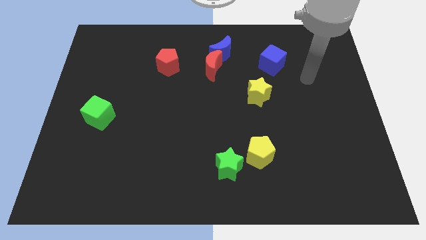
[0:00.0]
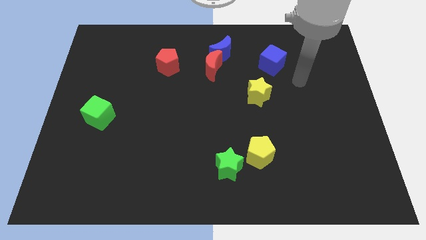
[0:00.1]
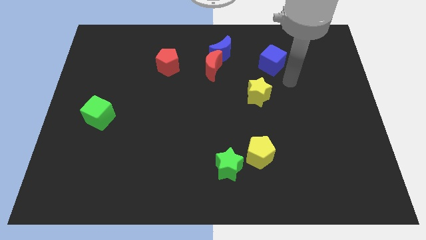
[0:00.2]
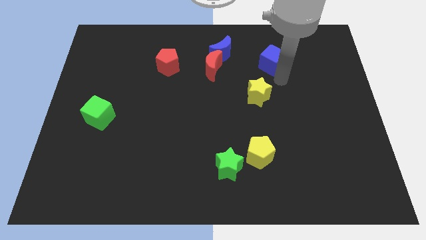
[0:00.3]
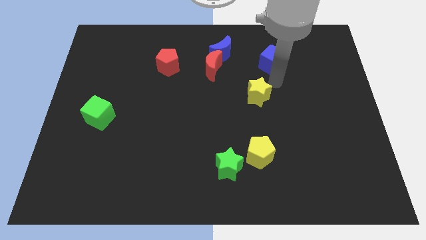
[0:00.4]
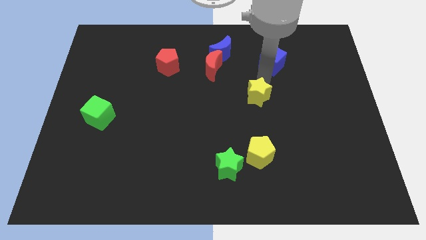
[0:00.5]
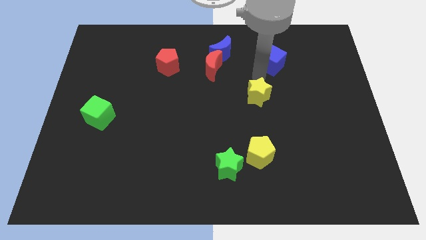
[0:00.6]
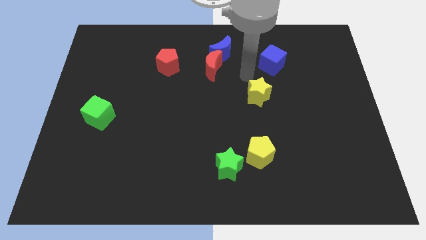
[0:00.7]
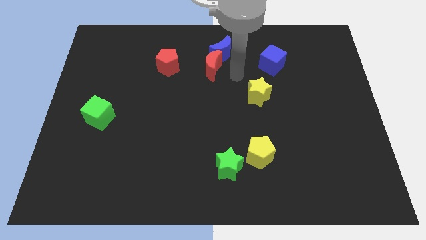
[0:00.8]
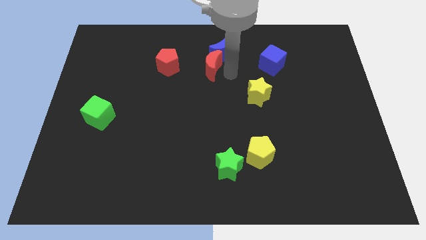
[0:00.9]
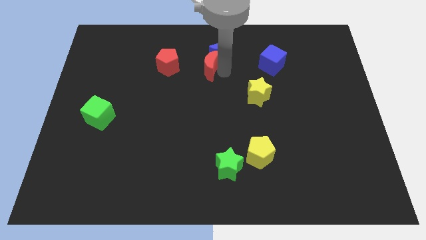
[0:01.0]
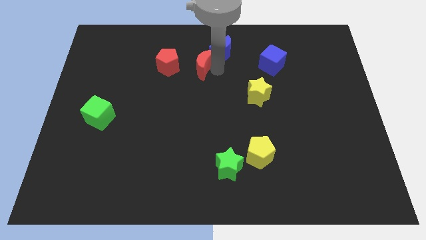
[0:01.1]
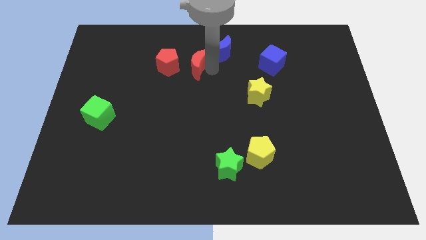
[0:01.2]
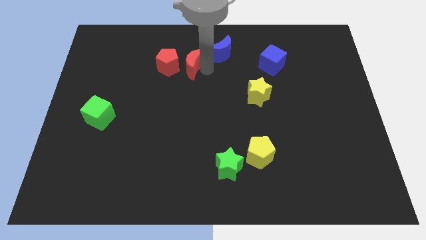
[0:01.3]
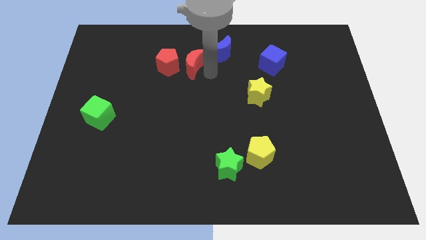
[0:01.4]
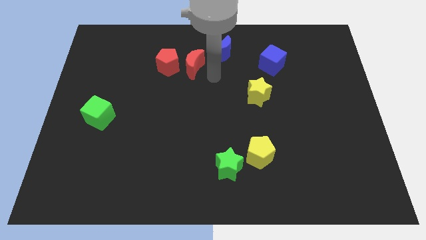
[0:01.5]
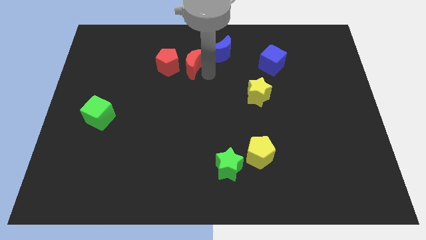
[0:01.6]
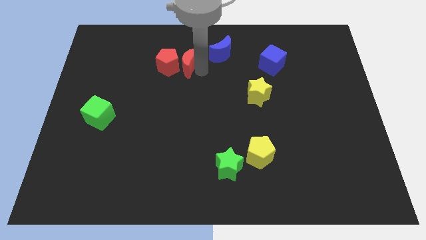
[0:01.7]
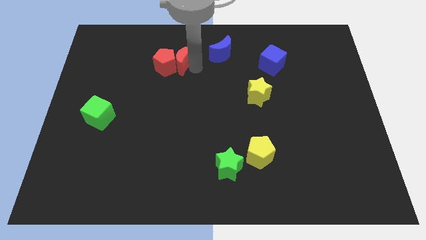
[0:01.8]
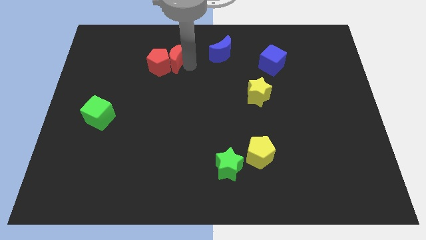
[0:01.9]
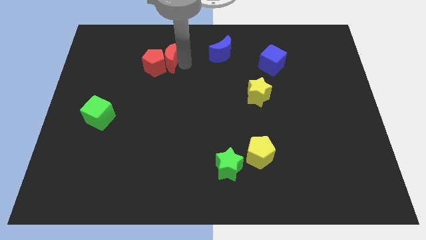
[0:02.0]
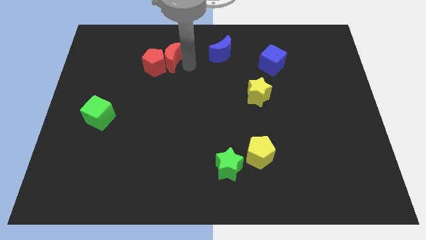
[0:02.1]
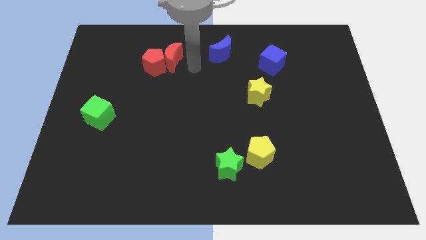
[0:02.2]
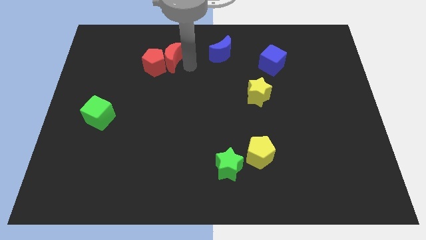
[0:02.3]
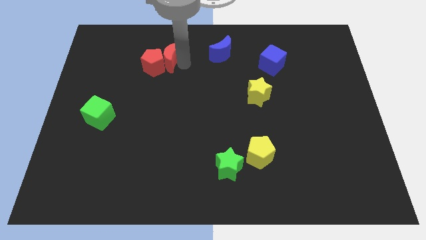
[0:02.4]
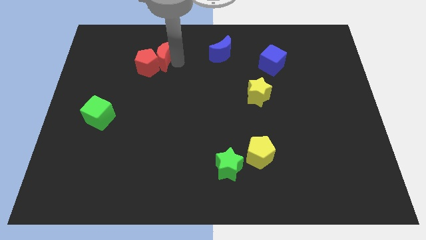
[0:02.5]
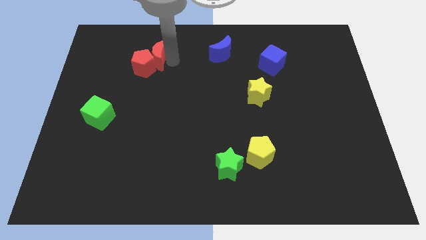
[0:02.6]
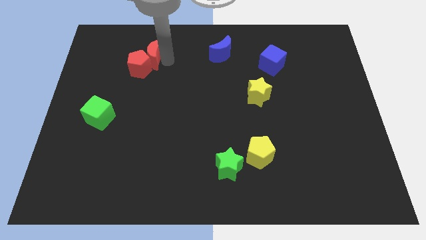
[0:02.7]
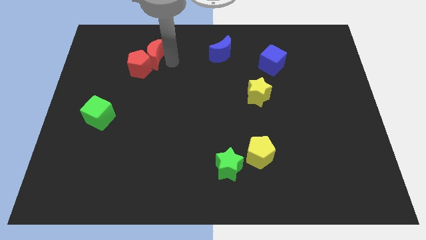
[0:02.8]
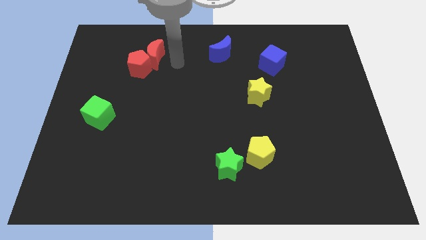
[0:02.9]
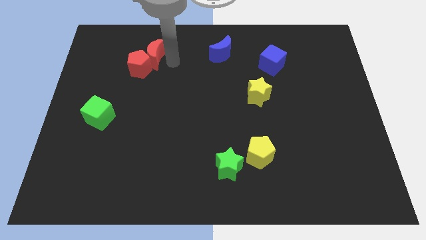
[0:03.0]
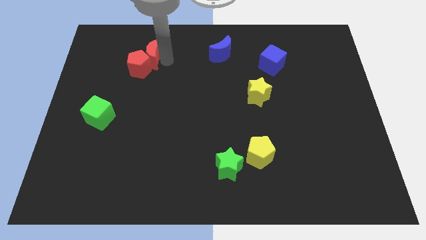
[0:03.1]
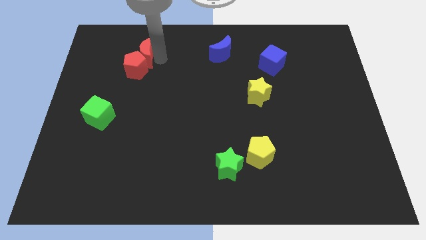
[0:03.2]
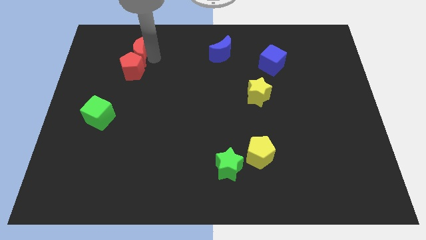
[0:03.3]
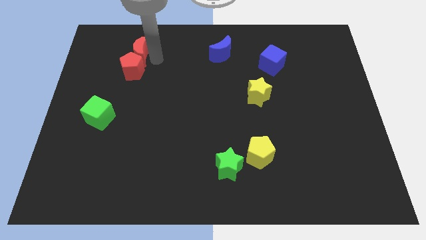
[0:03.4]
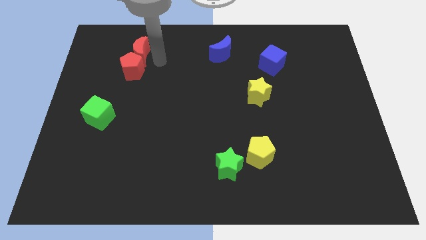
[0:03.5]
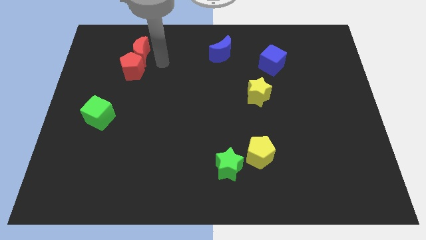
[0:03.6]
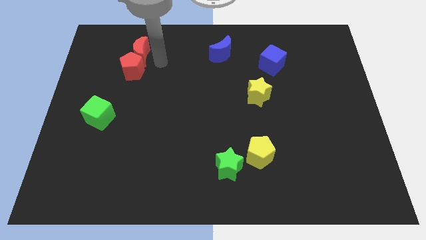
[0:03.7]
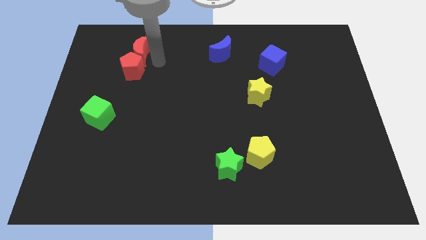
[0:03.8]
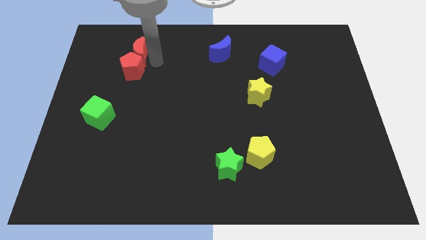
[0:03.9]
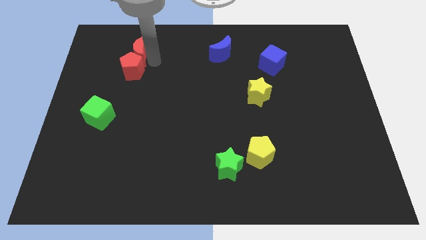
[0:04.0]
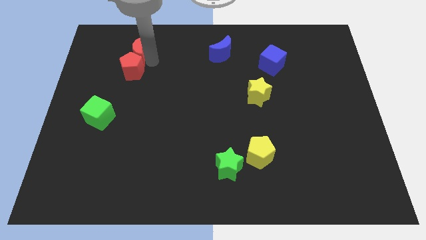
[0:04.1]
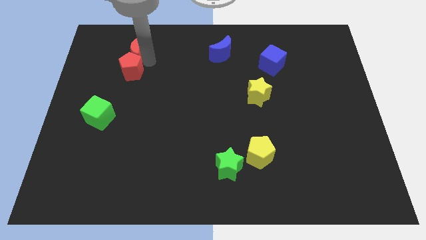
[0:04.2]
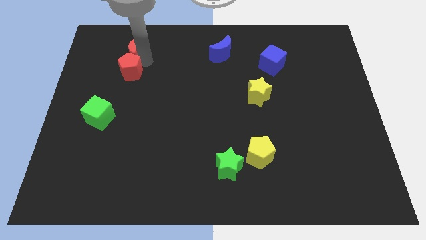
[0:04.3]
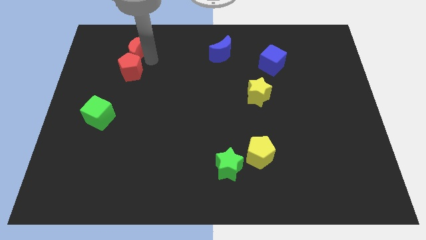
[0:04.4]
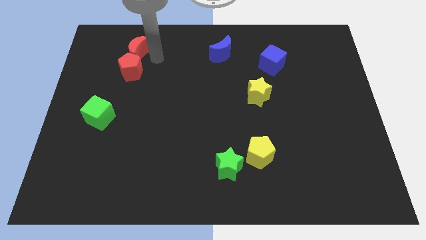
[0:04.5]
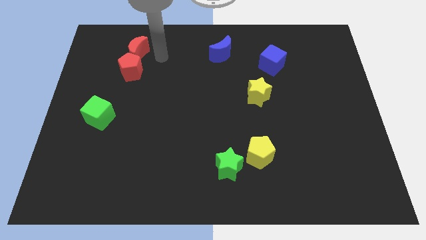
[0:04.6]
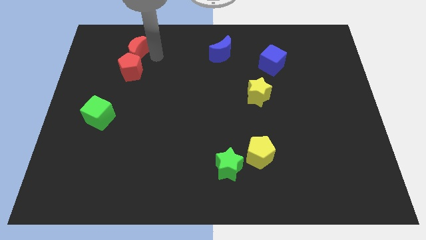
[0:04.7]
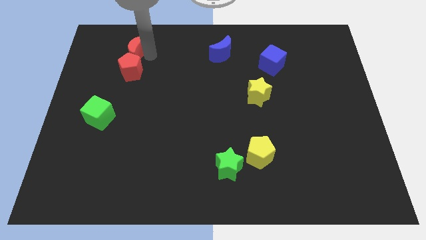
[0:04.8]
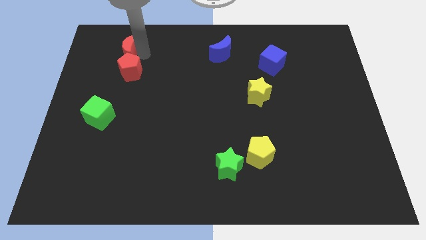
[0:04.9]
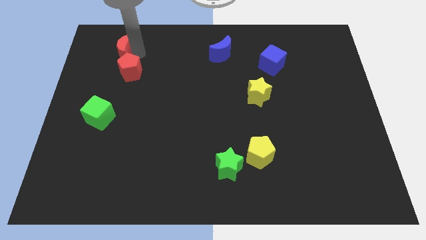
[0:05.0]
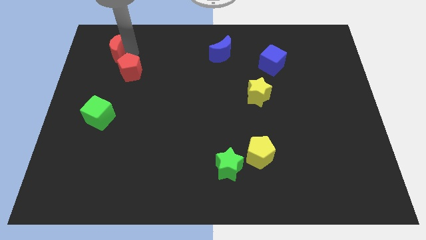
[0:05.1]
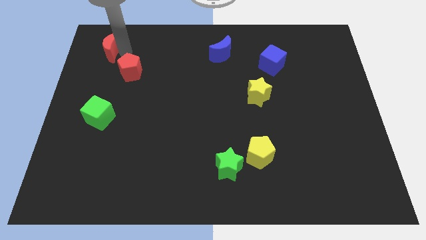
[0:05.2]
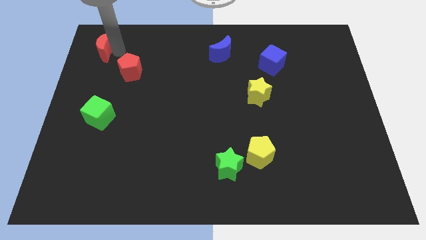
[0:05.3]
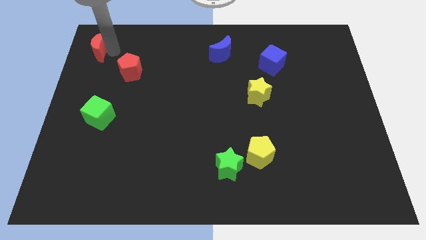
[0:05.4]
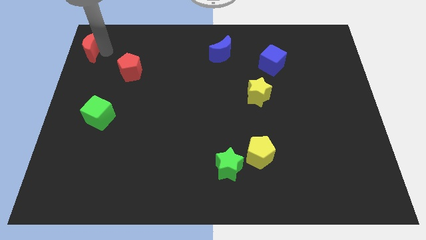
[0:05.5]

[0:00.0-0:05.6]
slide the red moon to the top left corner
